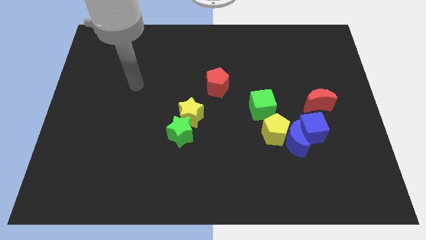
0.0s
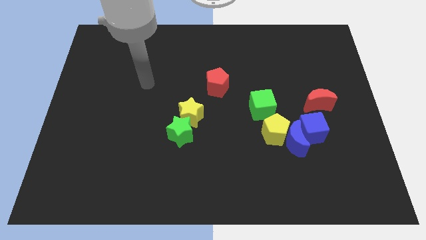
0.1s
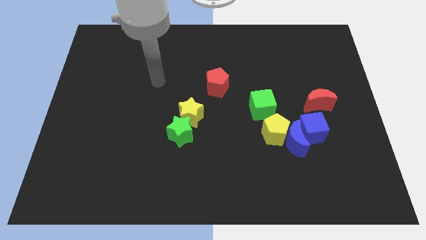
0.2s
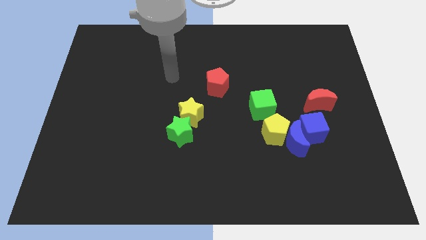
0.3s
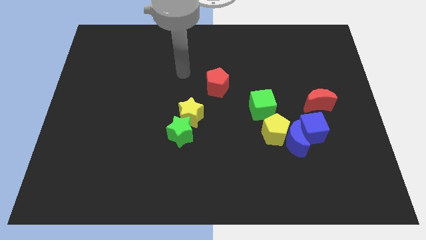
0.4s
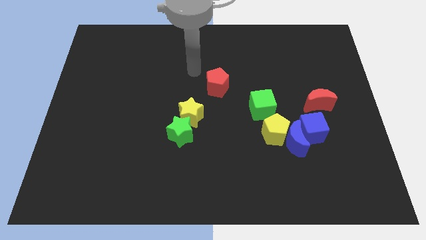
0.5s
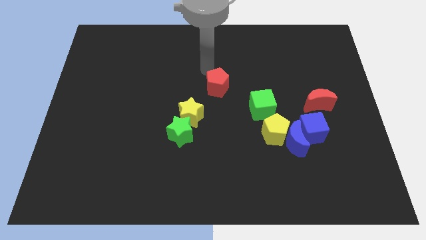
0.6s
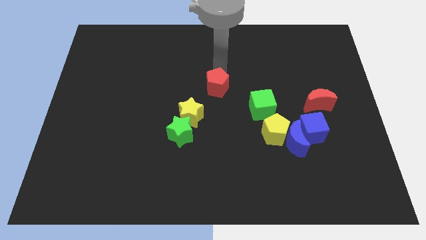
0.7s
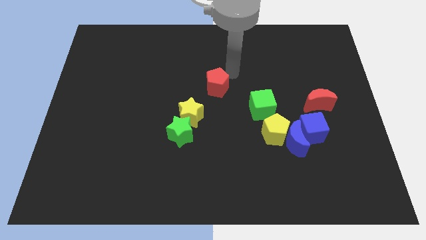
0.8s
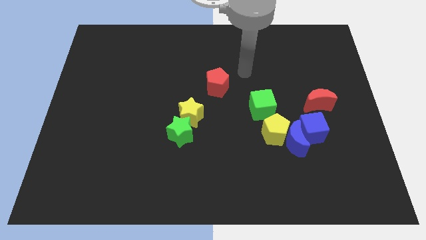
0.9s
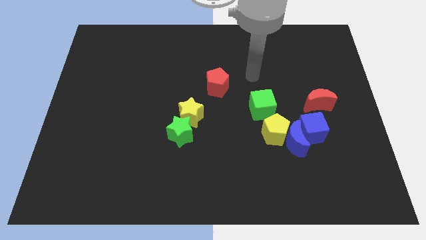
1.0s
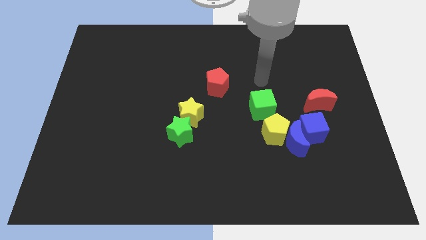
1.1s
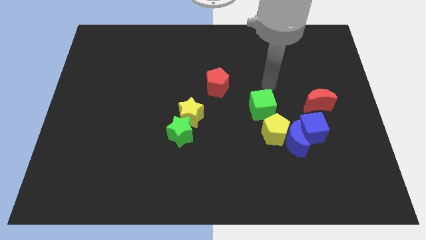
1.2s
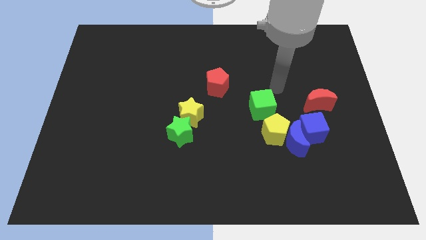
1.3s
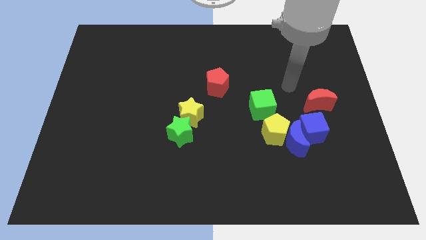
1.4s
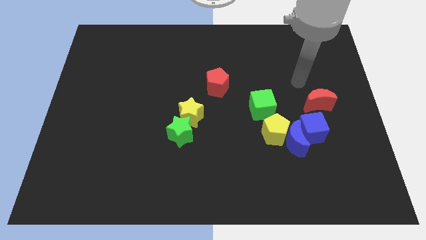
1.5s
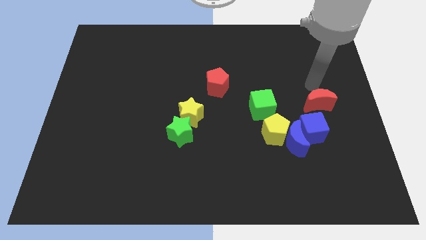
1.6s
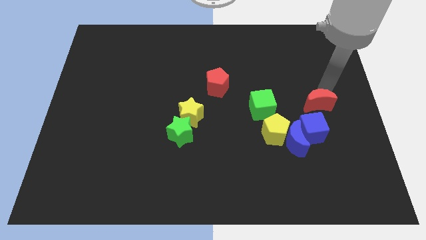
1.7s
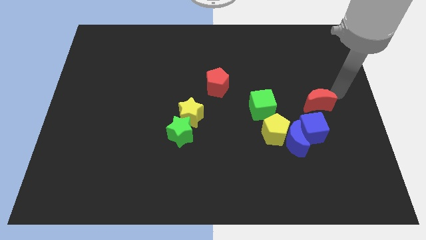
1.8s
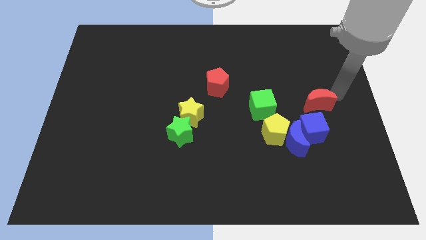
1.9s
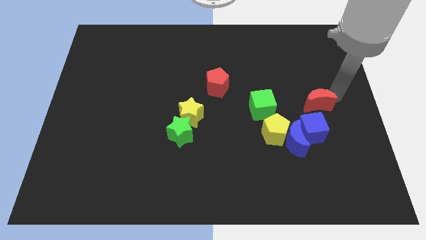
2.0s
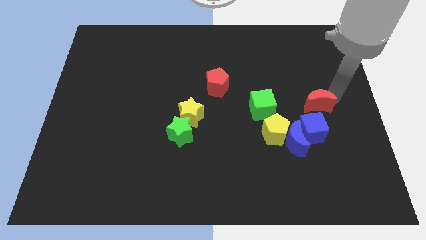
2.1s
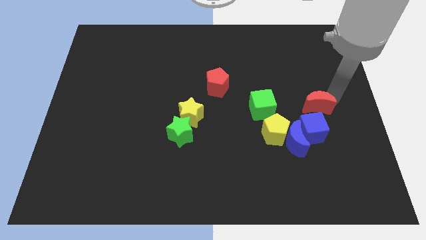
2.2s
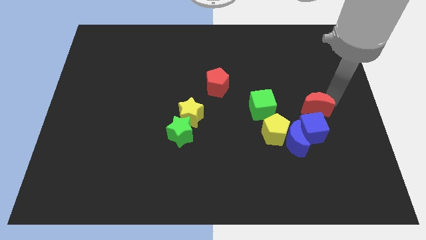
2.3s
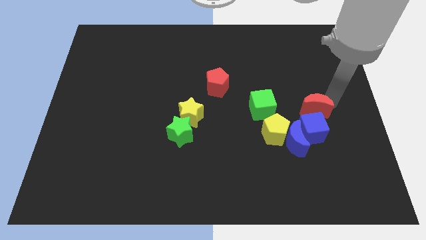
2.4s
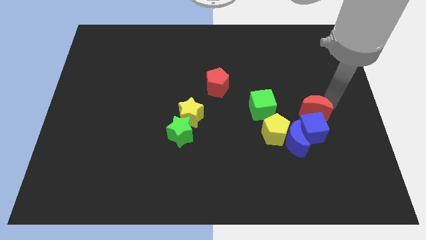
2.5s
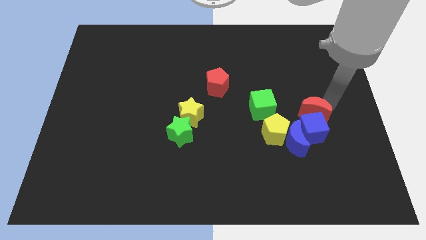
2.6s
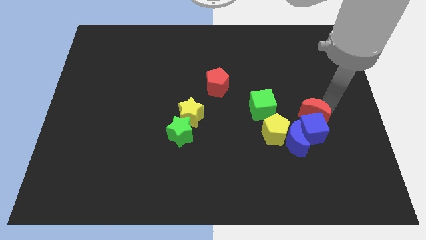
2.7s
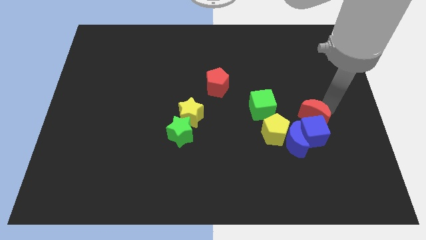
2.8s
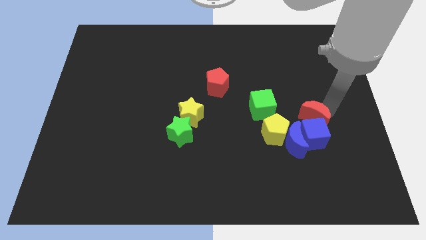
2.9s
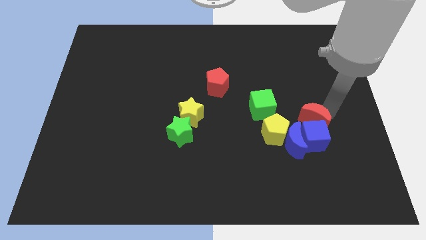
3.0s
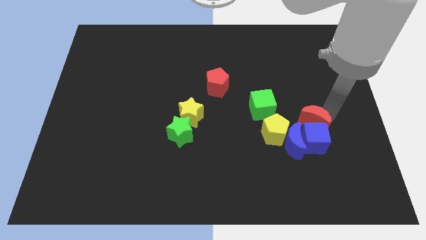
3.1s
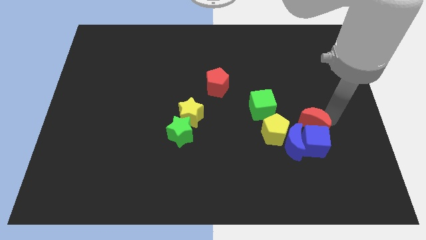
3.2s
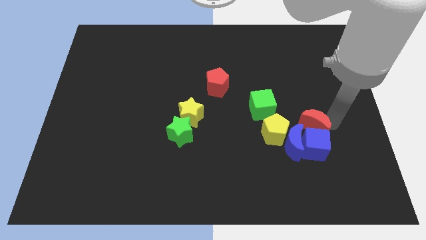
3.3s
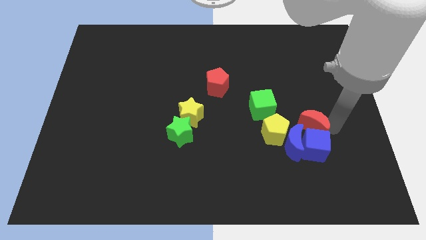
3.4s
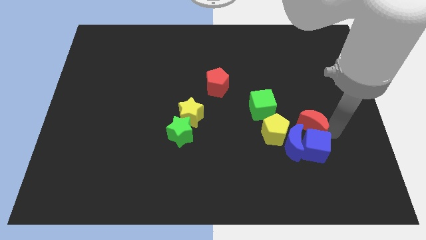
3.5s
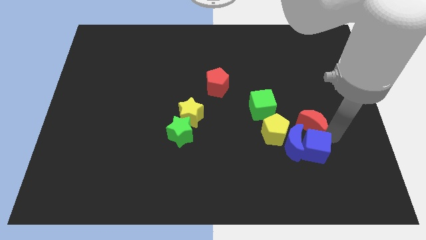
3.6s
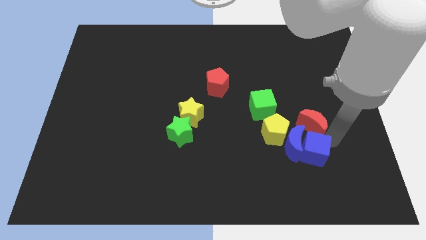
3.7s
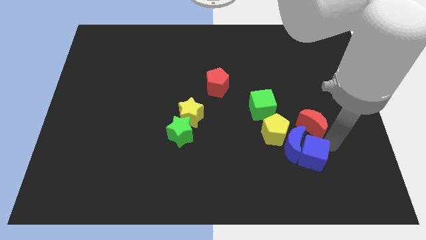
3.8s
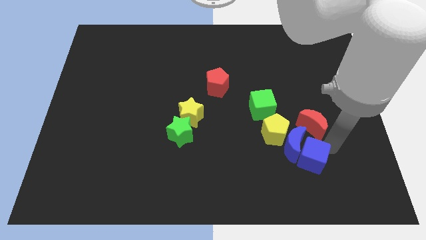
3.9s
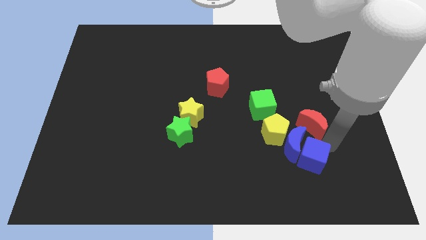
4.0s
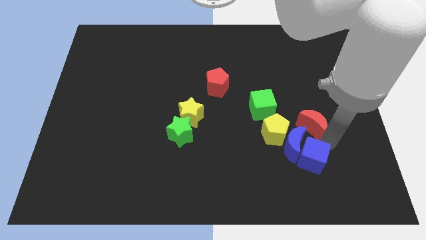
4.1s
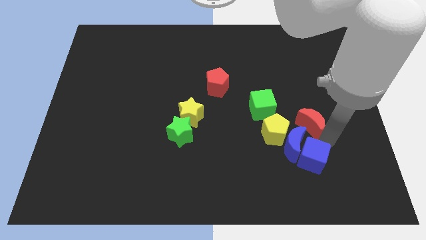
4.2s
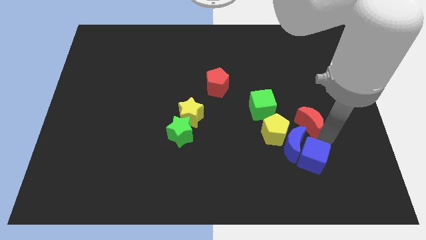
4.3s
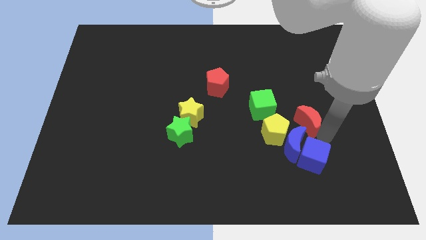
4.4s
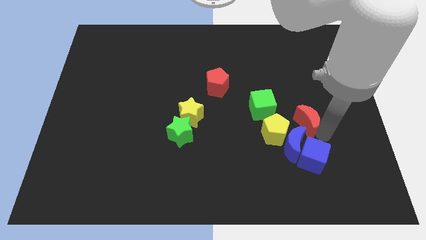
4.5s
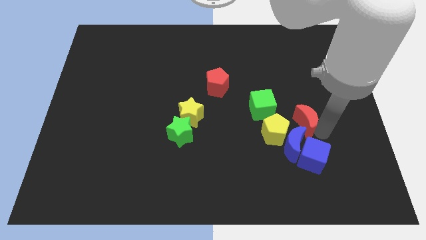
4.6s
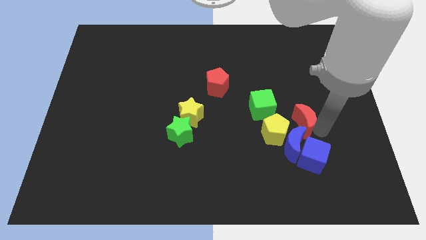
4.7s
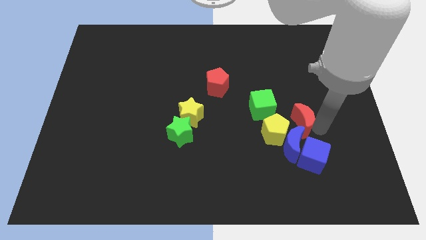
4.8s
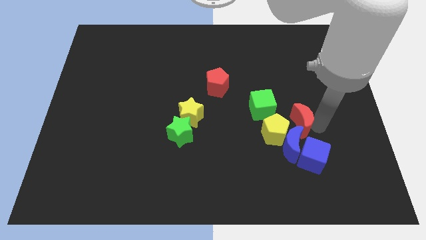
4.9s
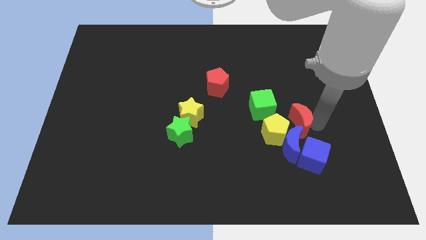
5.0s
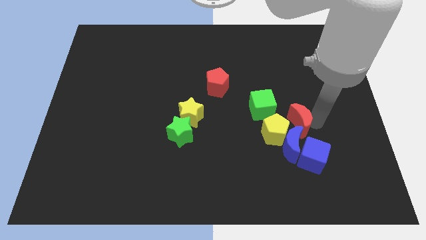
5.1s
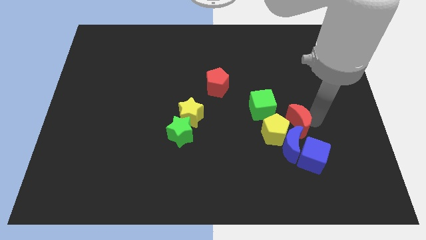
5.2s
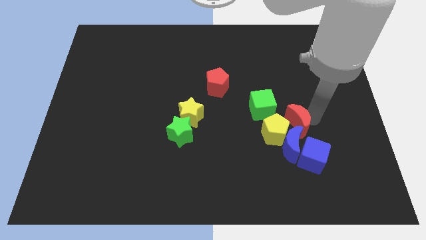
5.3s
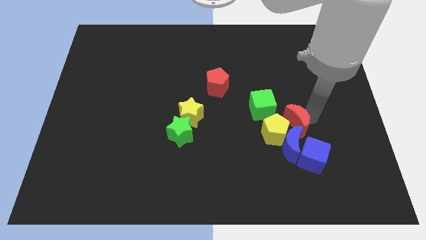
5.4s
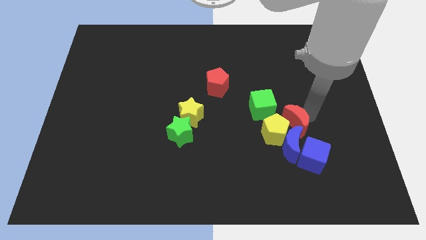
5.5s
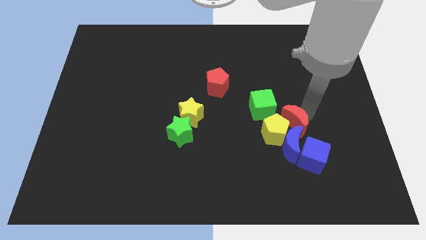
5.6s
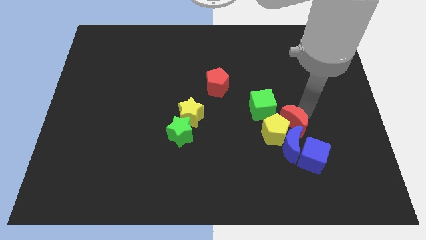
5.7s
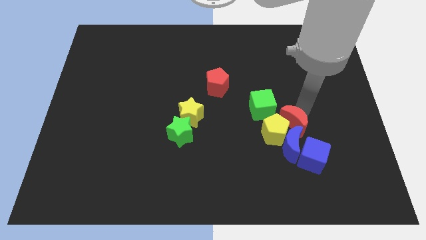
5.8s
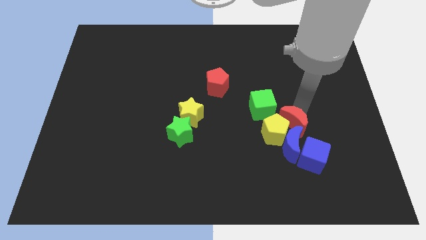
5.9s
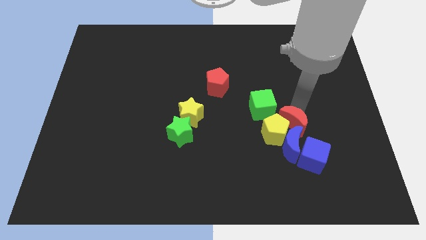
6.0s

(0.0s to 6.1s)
slide the red moon above the yellow pentagon

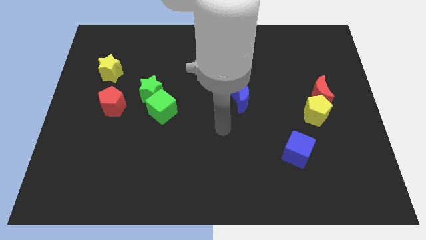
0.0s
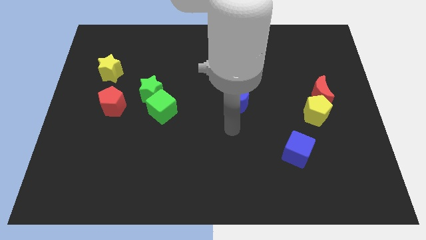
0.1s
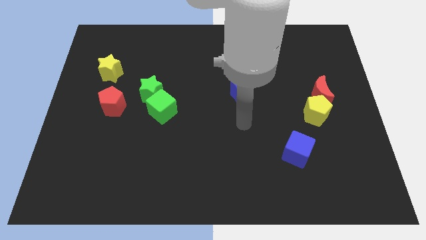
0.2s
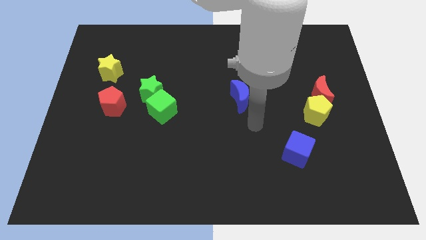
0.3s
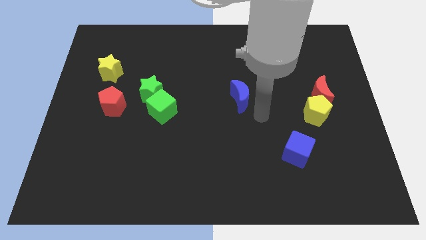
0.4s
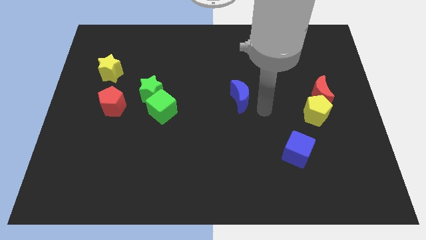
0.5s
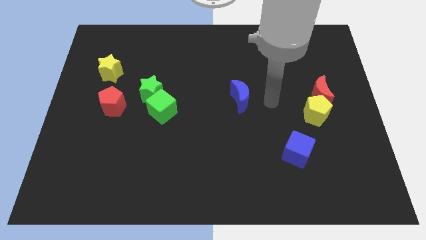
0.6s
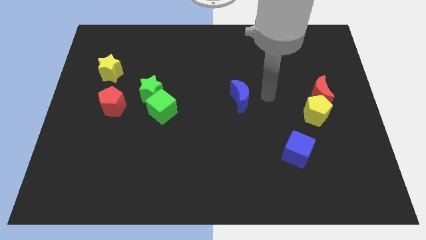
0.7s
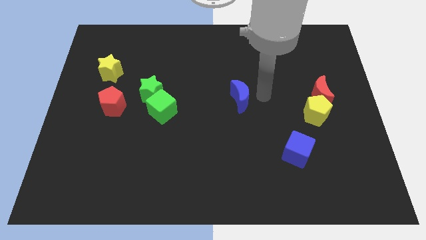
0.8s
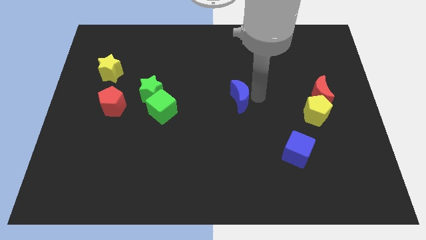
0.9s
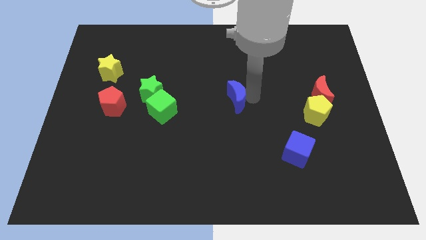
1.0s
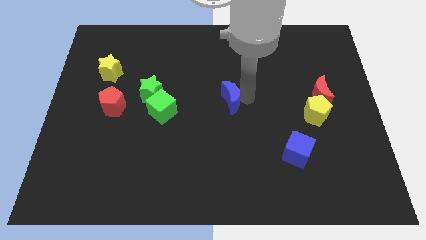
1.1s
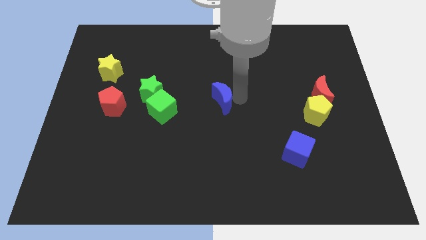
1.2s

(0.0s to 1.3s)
push the blue moon to the right of the green cube
